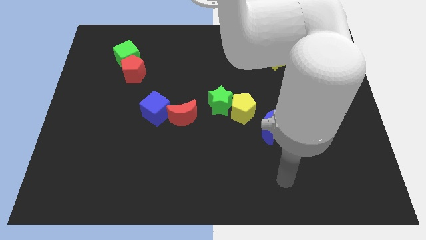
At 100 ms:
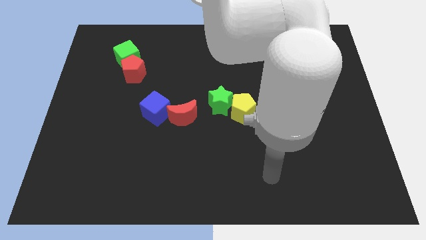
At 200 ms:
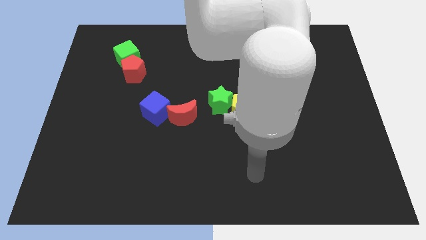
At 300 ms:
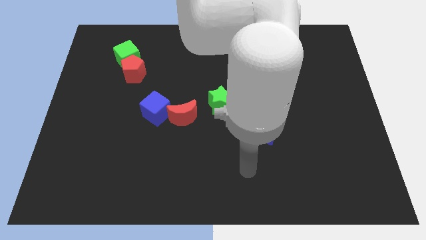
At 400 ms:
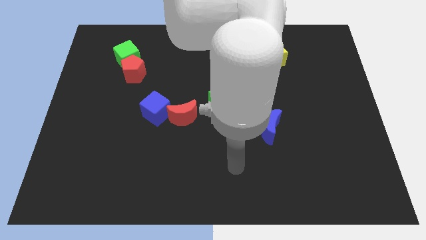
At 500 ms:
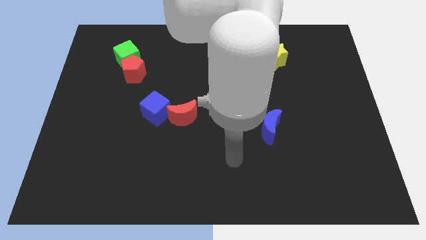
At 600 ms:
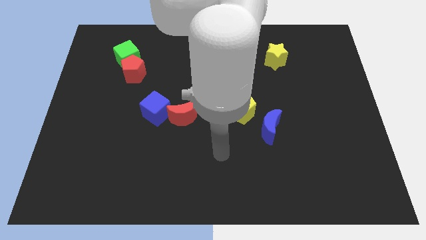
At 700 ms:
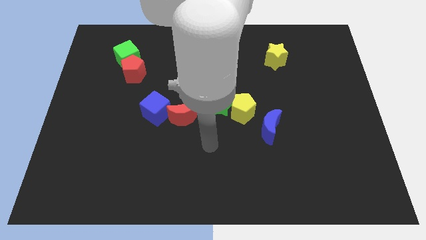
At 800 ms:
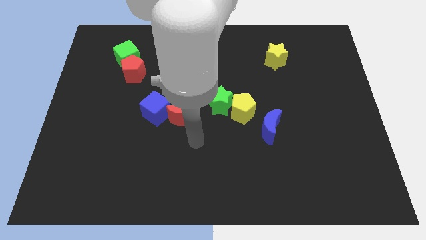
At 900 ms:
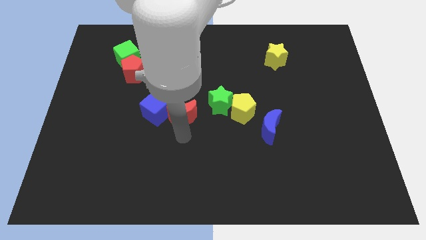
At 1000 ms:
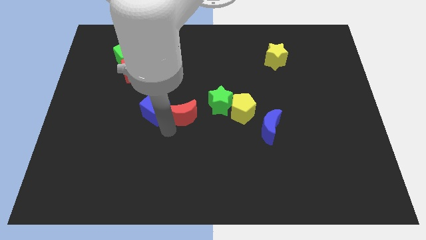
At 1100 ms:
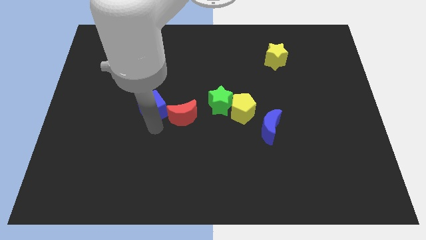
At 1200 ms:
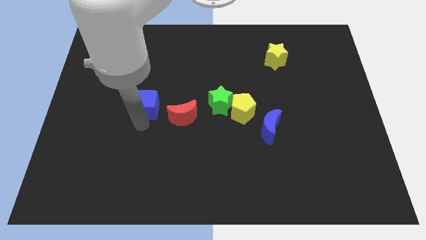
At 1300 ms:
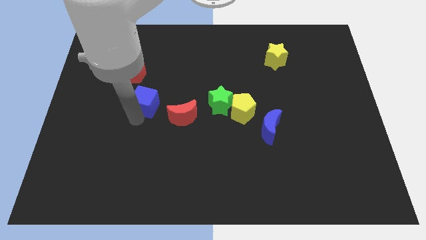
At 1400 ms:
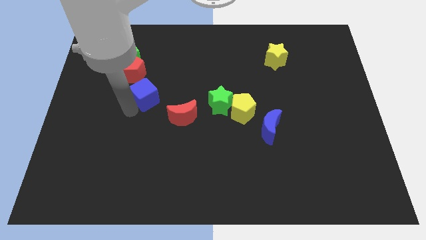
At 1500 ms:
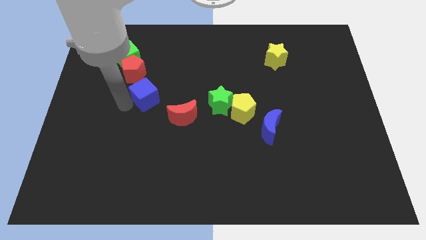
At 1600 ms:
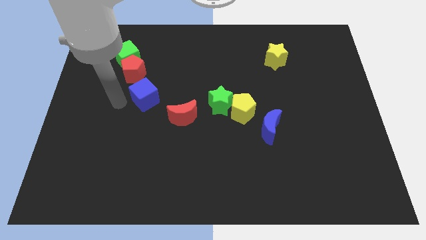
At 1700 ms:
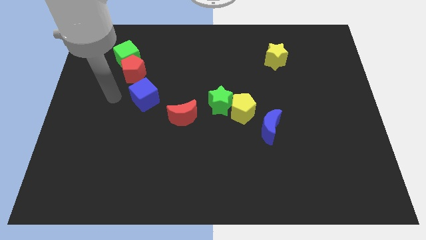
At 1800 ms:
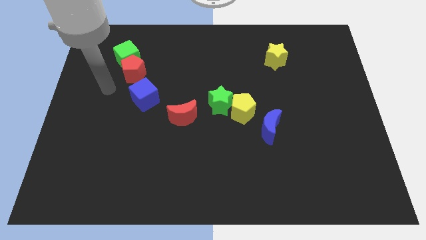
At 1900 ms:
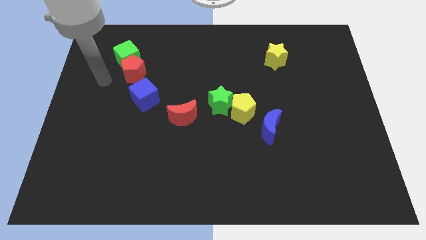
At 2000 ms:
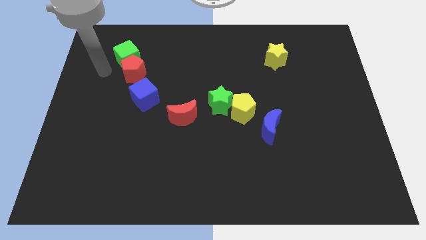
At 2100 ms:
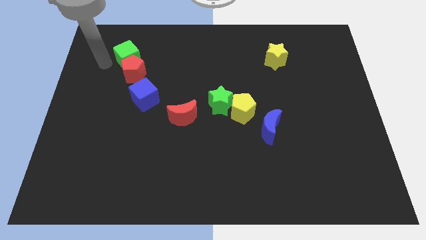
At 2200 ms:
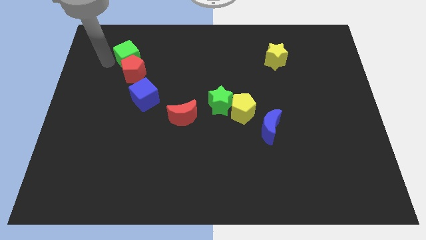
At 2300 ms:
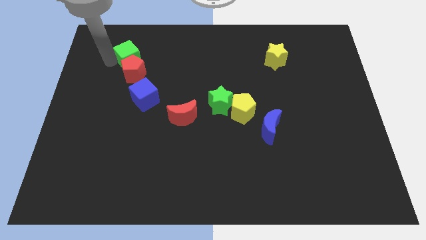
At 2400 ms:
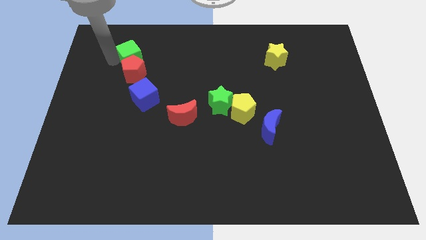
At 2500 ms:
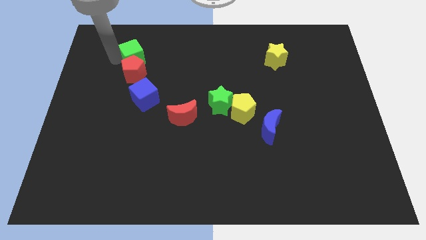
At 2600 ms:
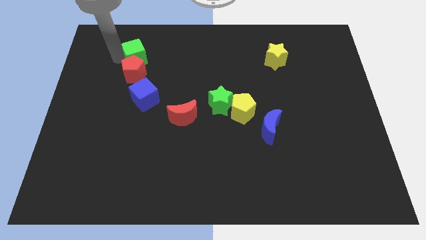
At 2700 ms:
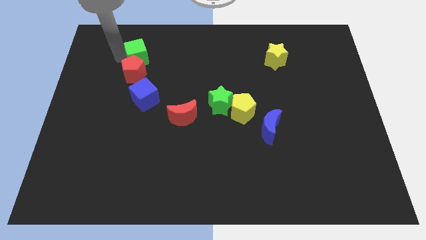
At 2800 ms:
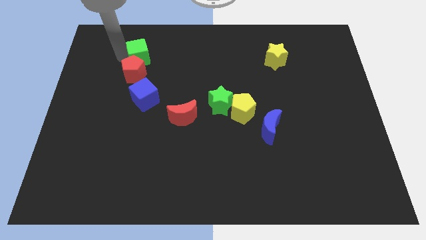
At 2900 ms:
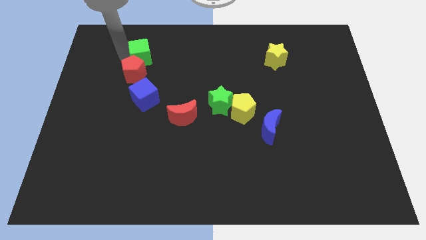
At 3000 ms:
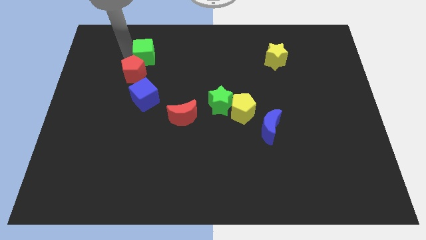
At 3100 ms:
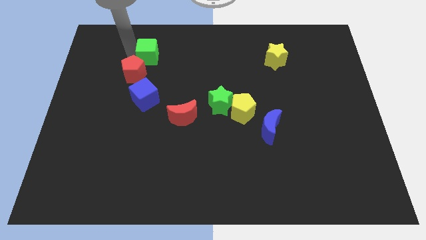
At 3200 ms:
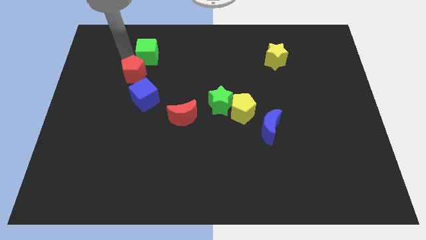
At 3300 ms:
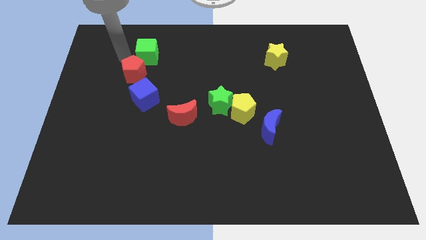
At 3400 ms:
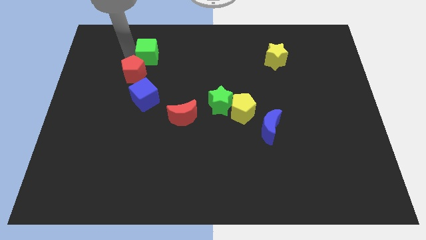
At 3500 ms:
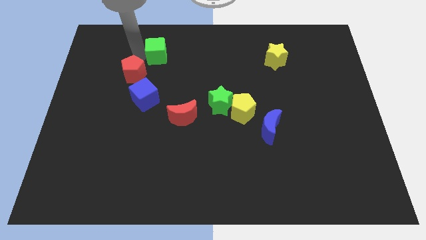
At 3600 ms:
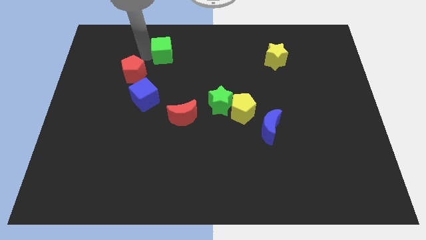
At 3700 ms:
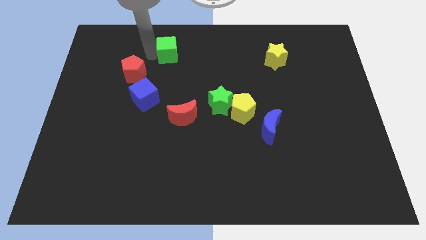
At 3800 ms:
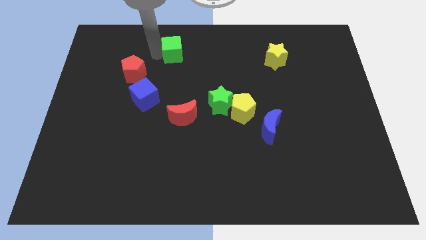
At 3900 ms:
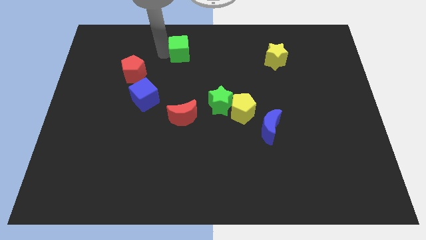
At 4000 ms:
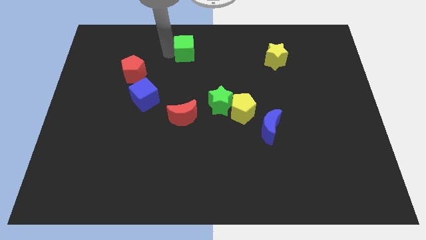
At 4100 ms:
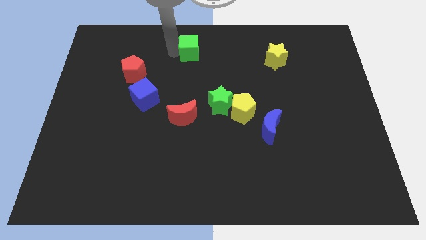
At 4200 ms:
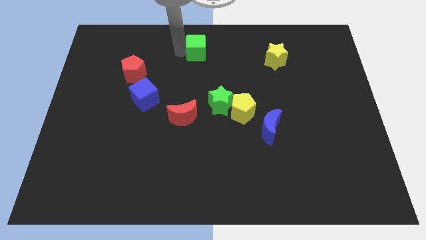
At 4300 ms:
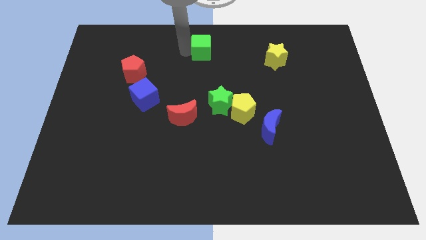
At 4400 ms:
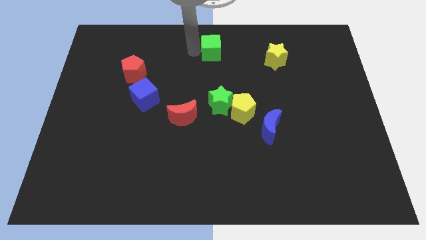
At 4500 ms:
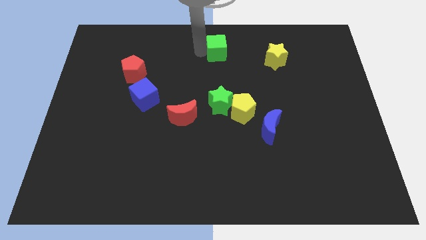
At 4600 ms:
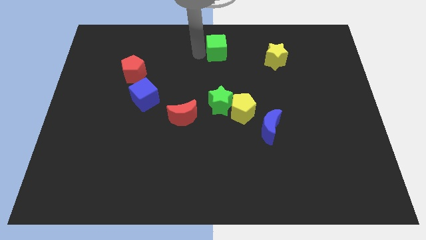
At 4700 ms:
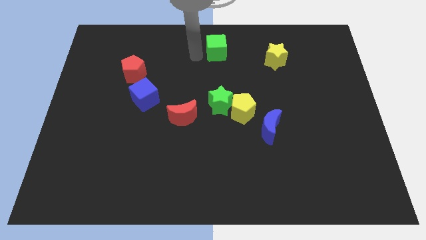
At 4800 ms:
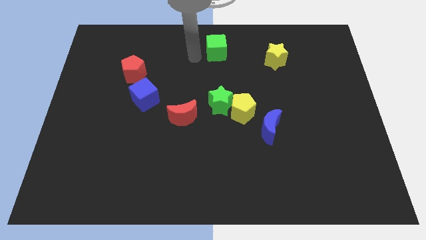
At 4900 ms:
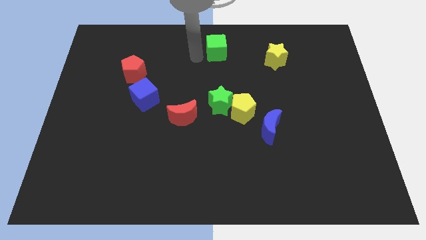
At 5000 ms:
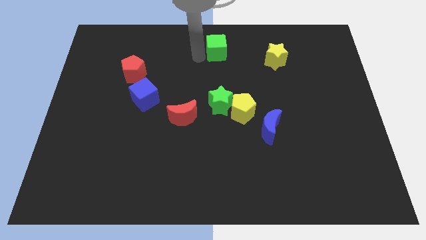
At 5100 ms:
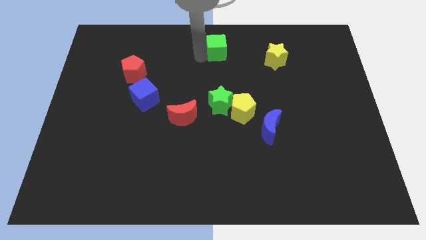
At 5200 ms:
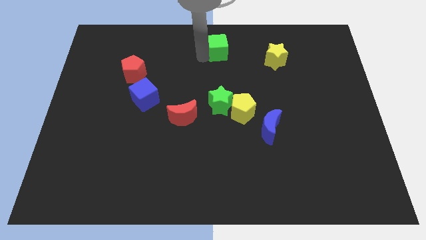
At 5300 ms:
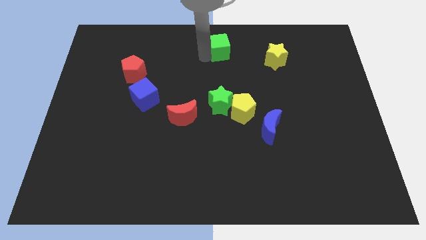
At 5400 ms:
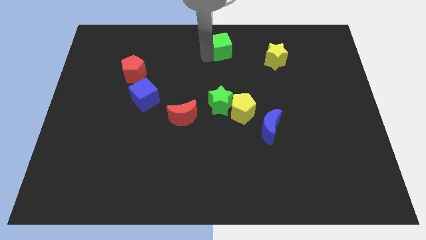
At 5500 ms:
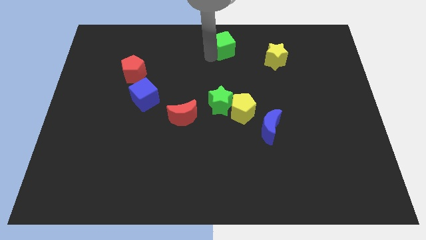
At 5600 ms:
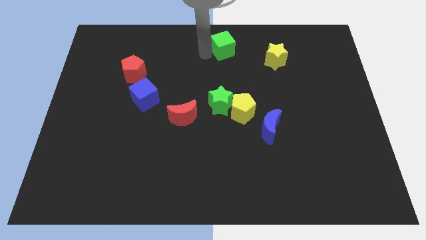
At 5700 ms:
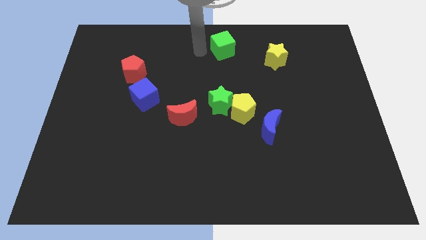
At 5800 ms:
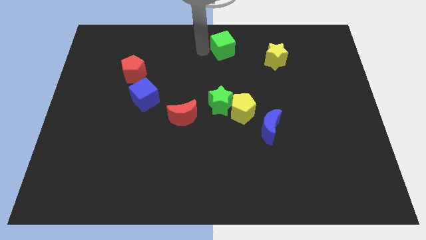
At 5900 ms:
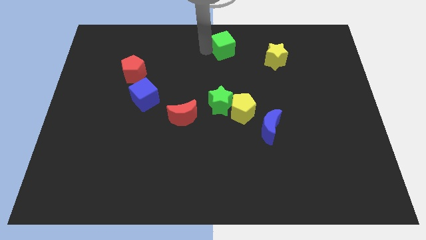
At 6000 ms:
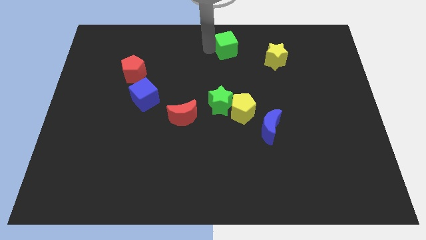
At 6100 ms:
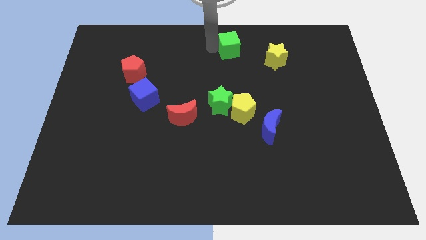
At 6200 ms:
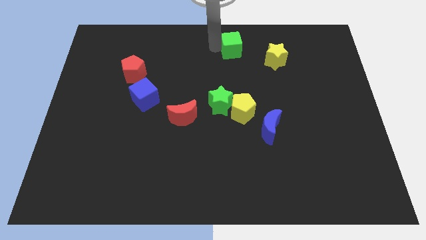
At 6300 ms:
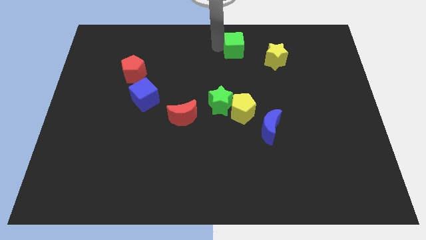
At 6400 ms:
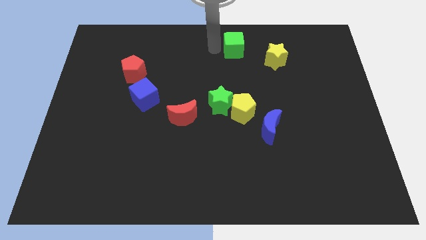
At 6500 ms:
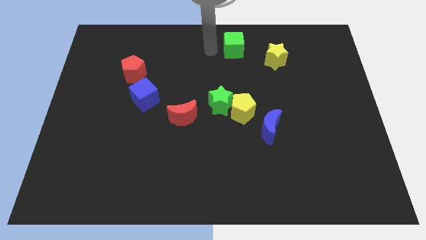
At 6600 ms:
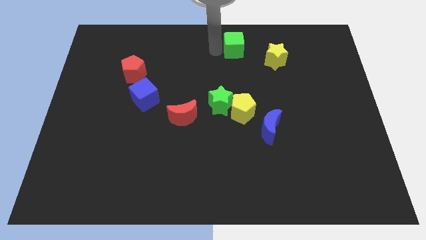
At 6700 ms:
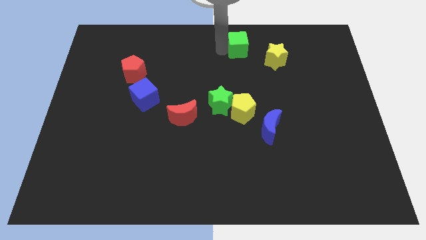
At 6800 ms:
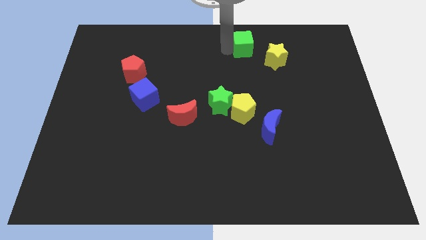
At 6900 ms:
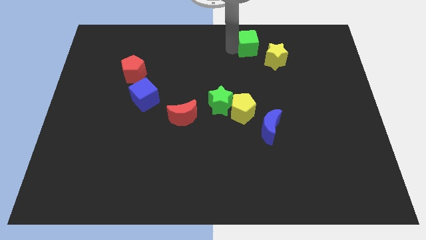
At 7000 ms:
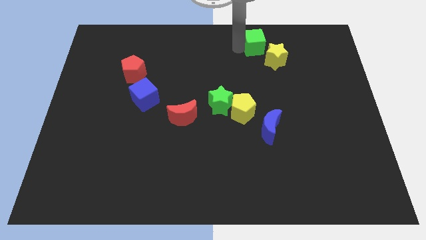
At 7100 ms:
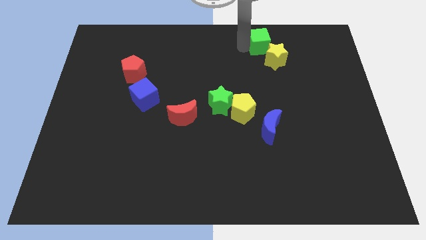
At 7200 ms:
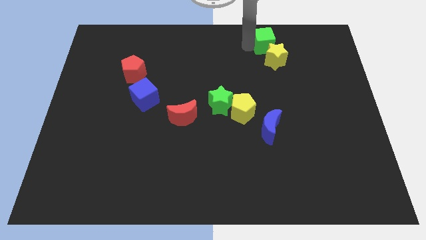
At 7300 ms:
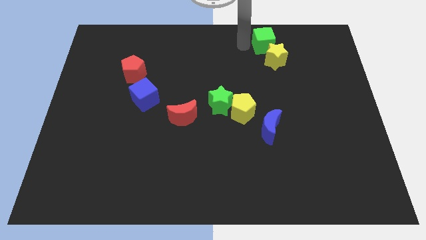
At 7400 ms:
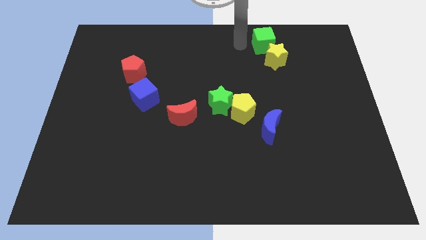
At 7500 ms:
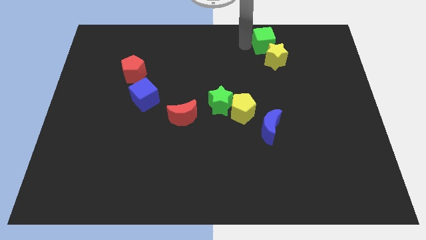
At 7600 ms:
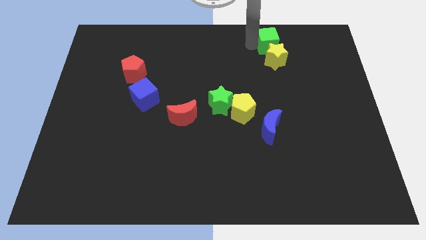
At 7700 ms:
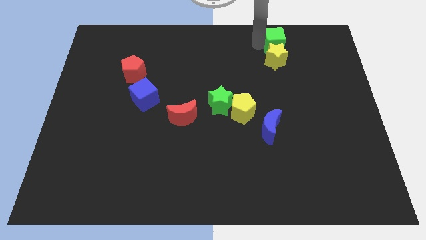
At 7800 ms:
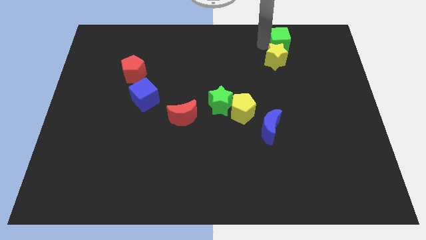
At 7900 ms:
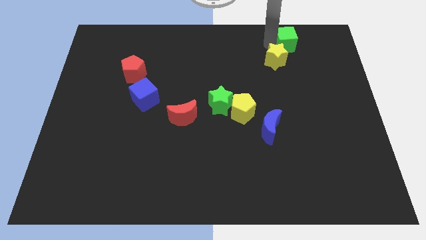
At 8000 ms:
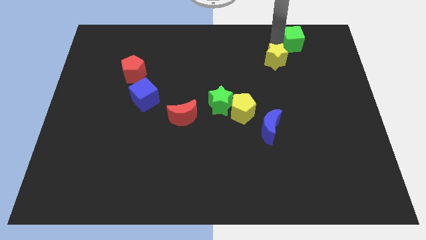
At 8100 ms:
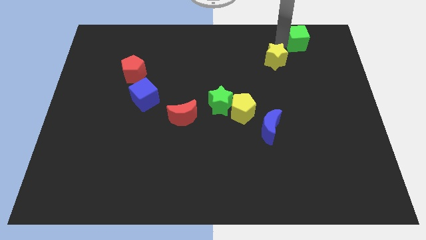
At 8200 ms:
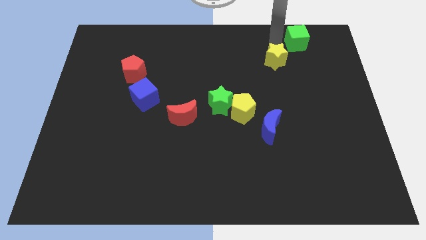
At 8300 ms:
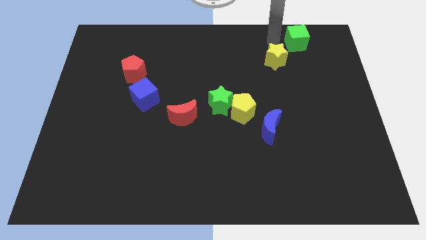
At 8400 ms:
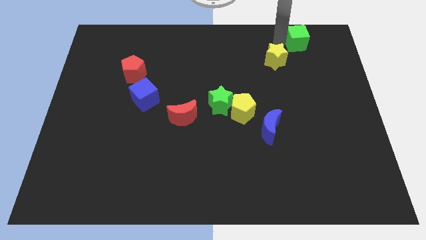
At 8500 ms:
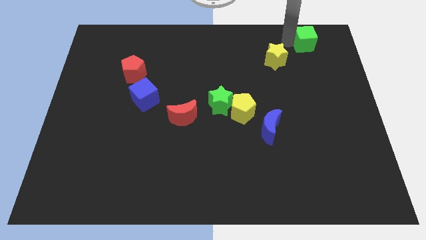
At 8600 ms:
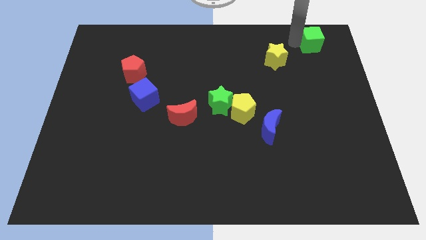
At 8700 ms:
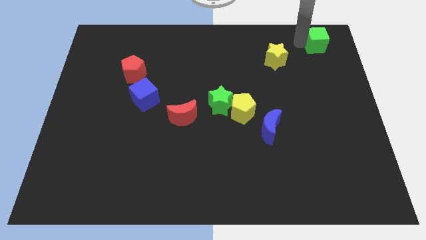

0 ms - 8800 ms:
slide the green cube to the top right
